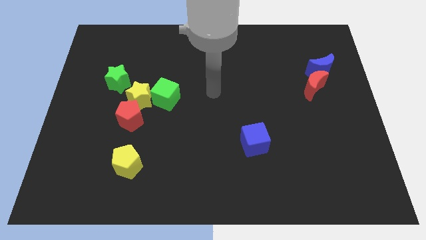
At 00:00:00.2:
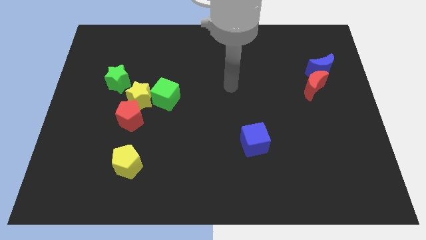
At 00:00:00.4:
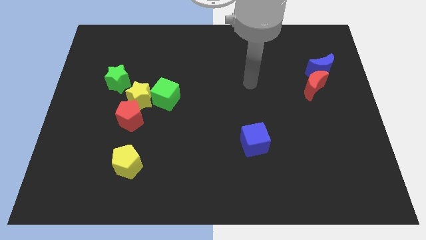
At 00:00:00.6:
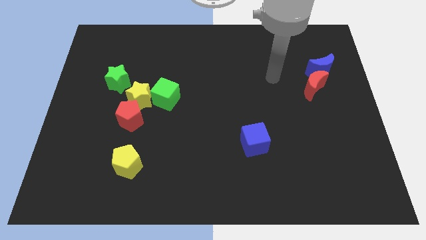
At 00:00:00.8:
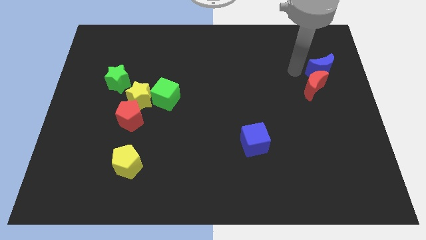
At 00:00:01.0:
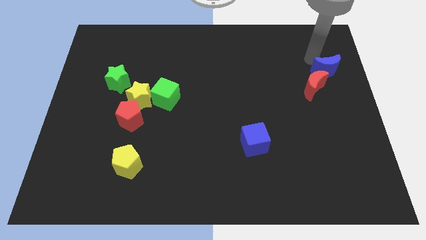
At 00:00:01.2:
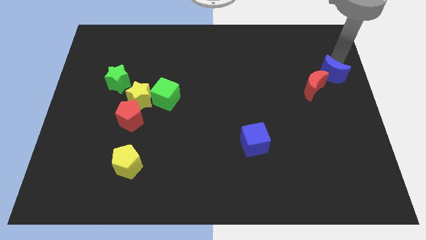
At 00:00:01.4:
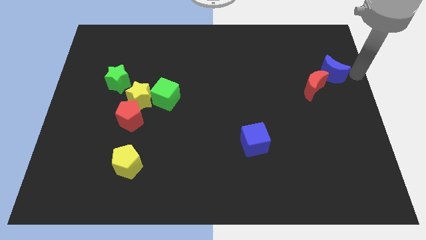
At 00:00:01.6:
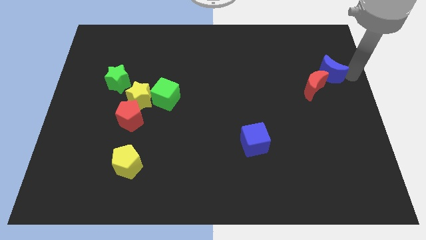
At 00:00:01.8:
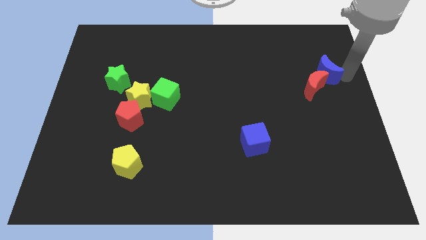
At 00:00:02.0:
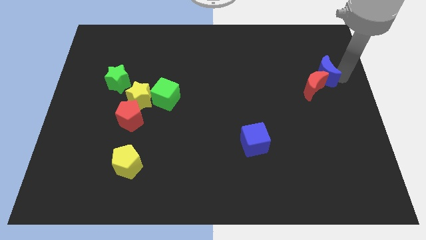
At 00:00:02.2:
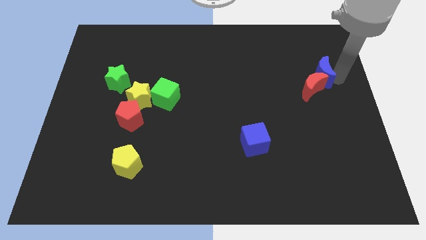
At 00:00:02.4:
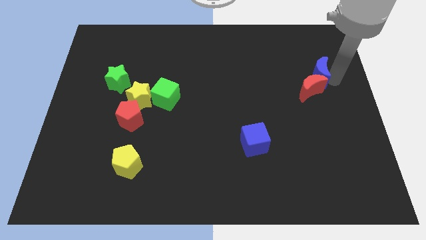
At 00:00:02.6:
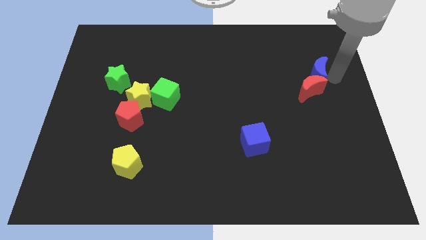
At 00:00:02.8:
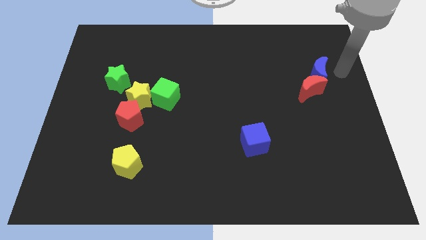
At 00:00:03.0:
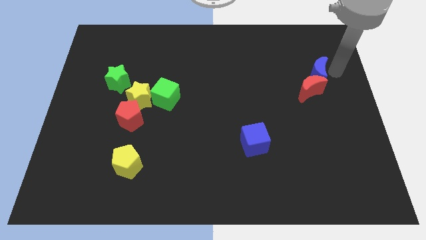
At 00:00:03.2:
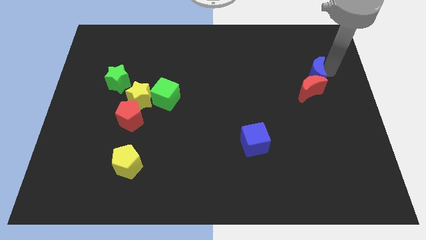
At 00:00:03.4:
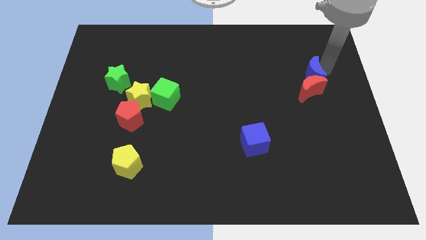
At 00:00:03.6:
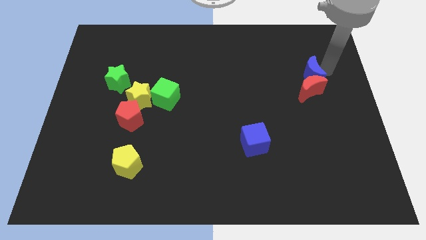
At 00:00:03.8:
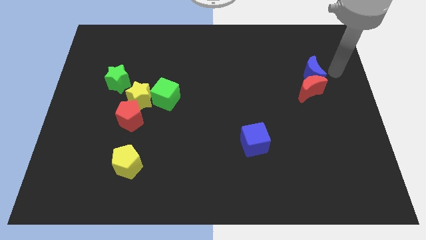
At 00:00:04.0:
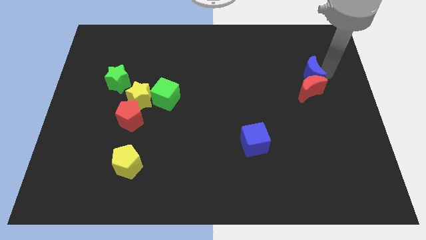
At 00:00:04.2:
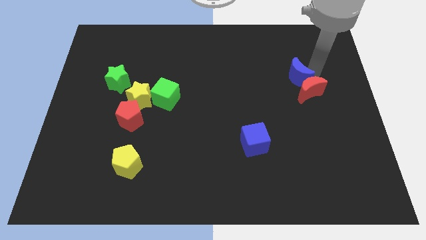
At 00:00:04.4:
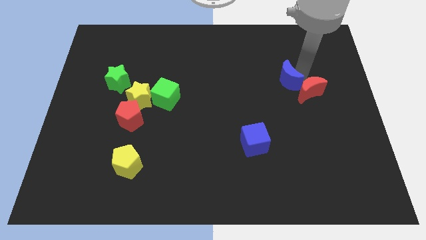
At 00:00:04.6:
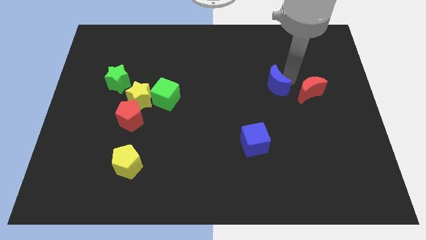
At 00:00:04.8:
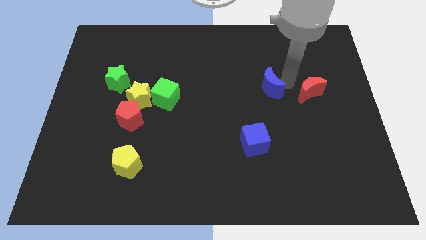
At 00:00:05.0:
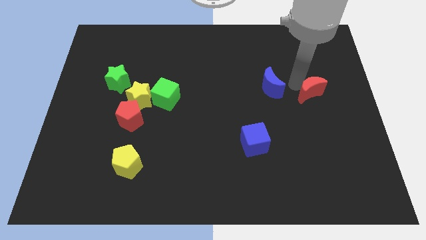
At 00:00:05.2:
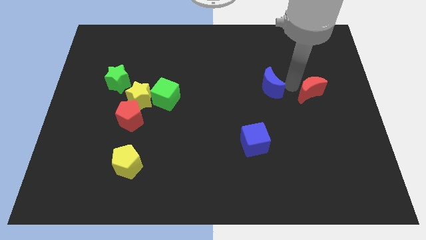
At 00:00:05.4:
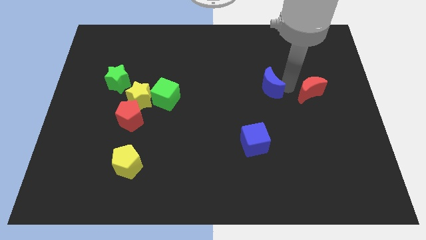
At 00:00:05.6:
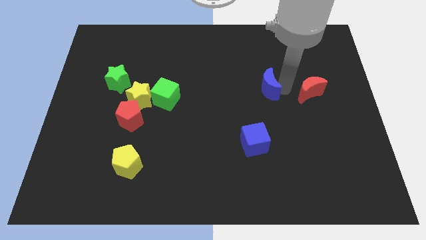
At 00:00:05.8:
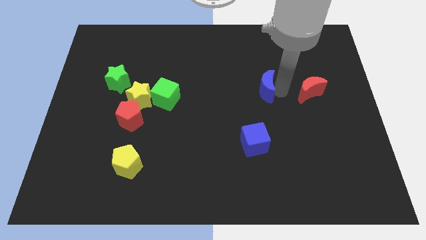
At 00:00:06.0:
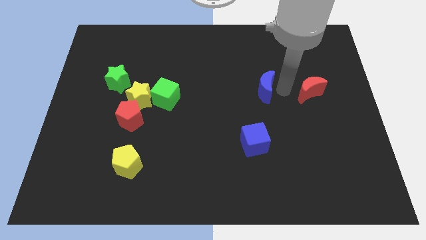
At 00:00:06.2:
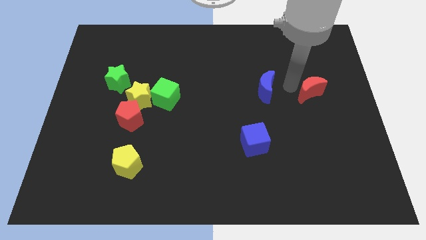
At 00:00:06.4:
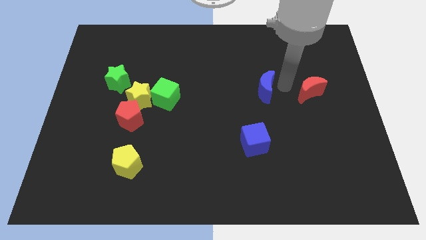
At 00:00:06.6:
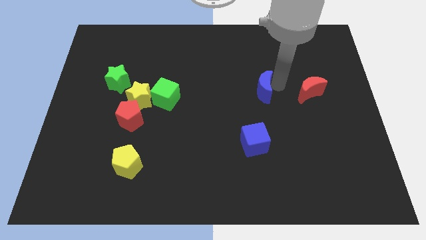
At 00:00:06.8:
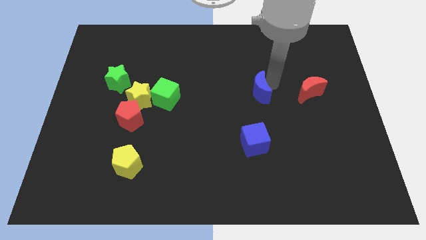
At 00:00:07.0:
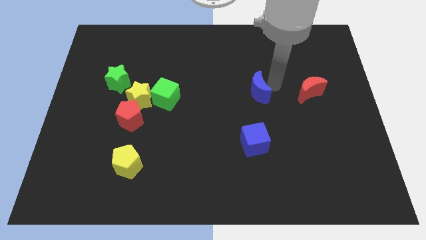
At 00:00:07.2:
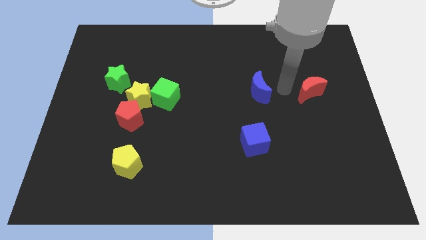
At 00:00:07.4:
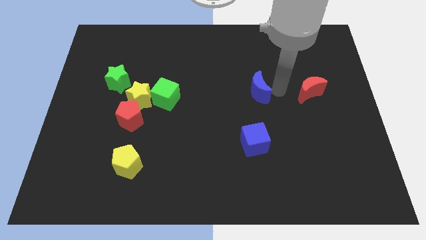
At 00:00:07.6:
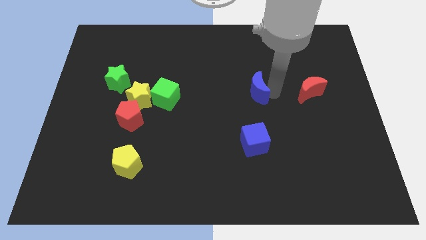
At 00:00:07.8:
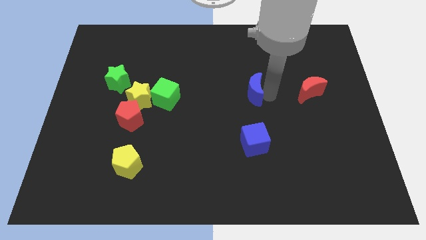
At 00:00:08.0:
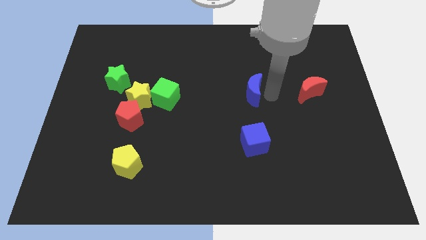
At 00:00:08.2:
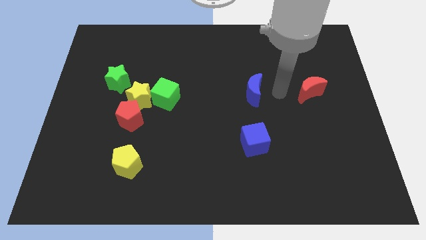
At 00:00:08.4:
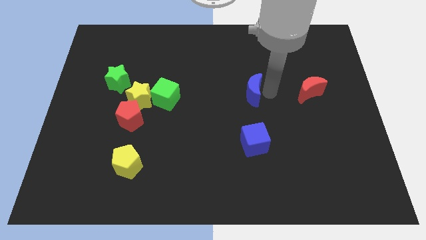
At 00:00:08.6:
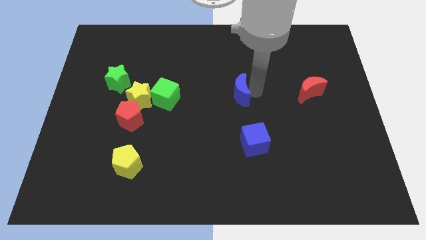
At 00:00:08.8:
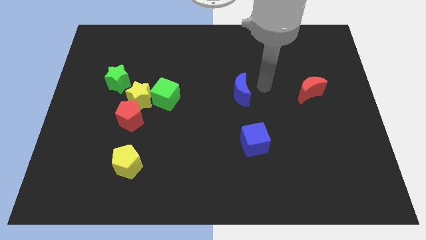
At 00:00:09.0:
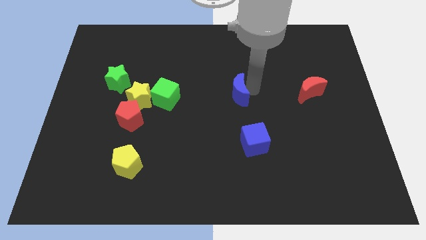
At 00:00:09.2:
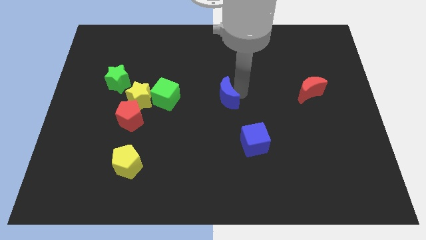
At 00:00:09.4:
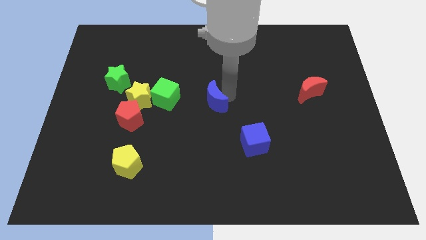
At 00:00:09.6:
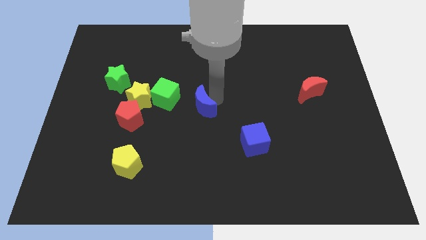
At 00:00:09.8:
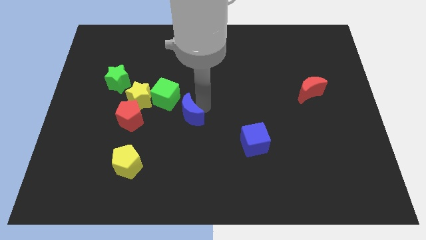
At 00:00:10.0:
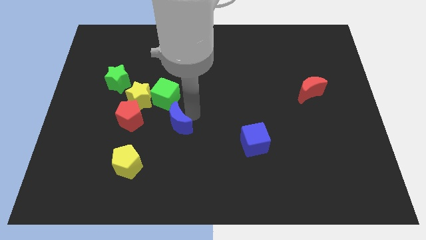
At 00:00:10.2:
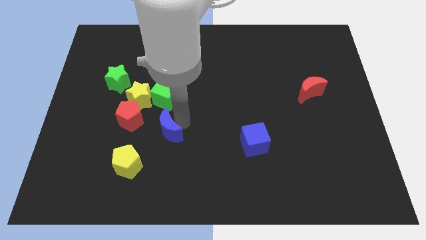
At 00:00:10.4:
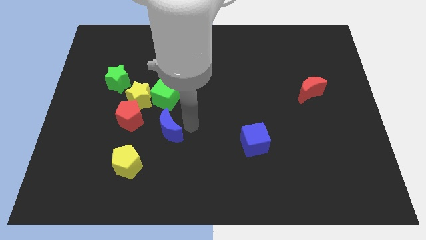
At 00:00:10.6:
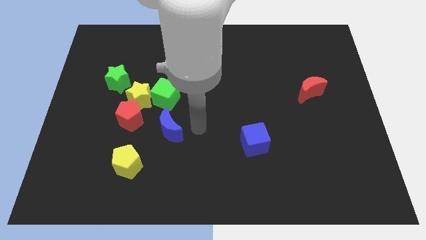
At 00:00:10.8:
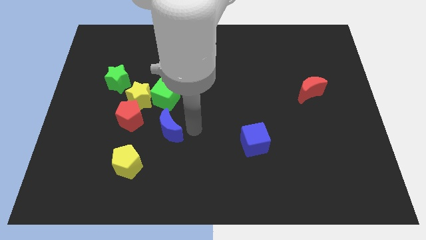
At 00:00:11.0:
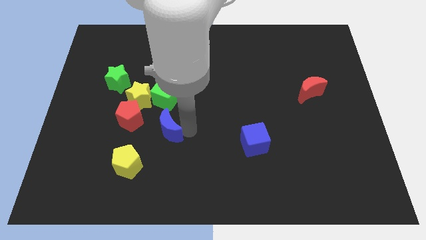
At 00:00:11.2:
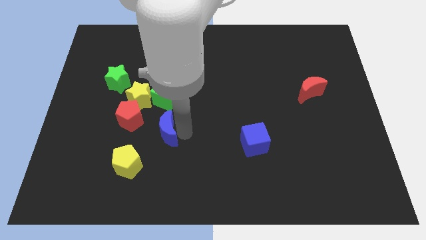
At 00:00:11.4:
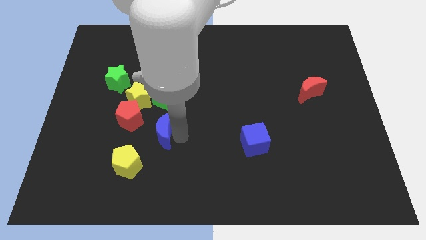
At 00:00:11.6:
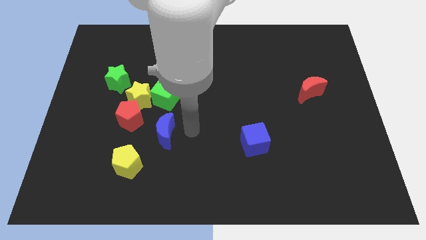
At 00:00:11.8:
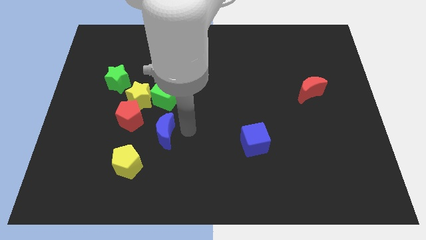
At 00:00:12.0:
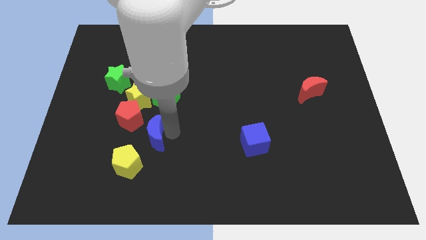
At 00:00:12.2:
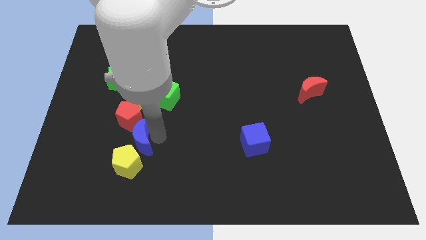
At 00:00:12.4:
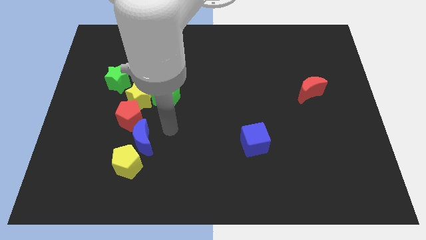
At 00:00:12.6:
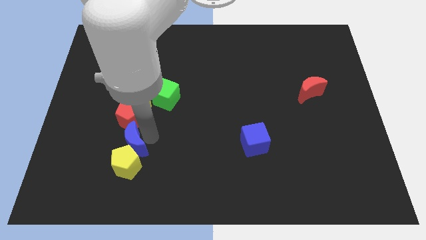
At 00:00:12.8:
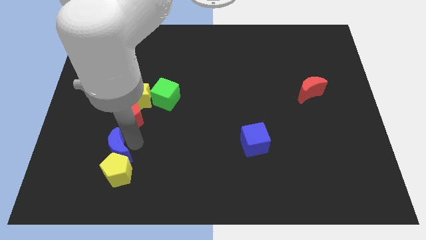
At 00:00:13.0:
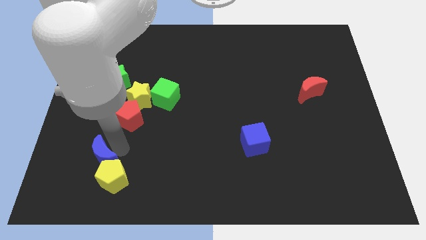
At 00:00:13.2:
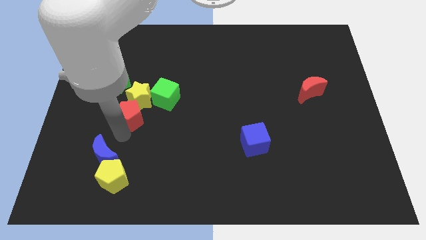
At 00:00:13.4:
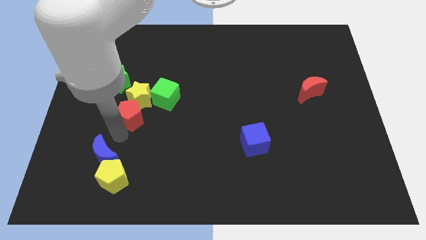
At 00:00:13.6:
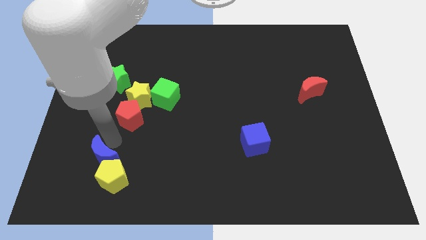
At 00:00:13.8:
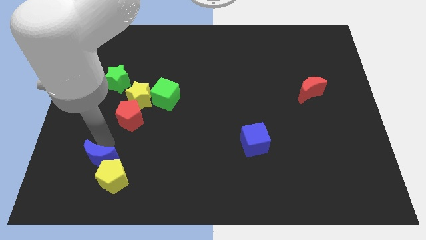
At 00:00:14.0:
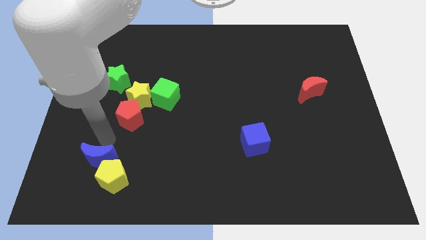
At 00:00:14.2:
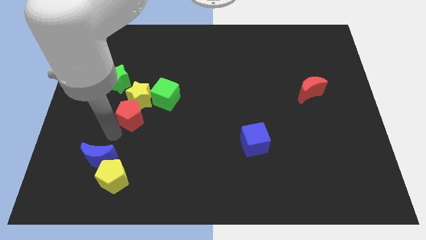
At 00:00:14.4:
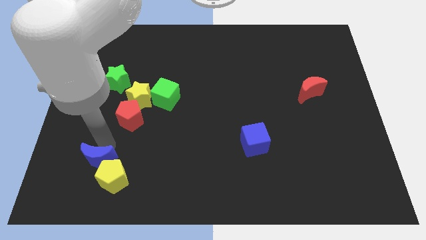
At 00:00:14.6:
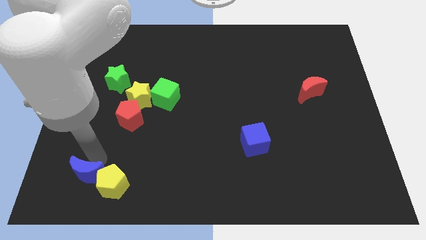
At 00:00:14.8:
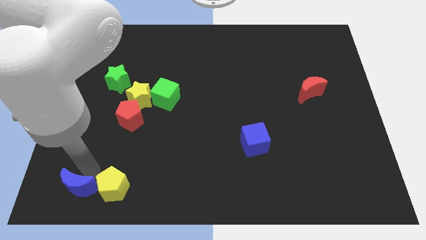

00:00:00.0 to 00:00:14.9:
push the blue moon to the bottom left of the board
